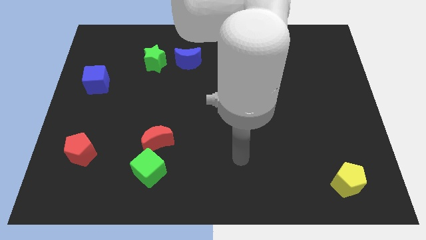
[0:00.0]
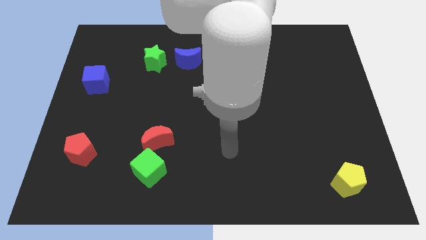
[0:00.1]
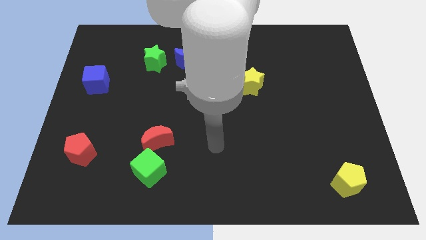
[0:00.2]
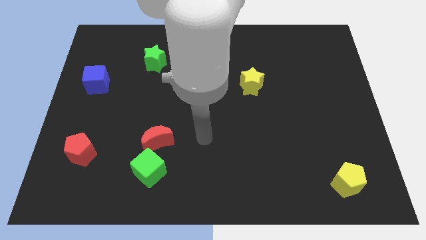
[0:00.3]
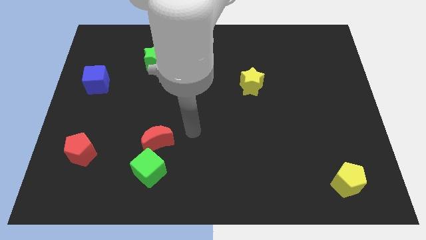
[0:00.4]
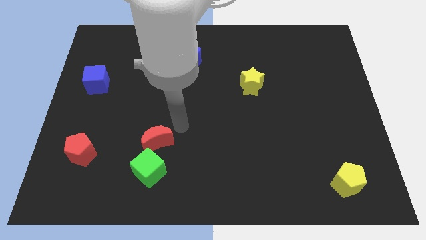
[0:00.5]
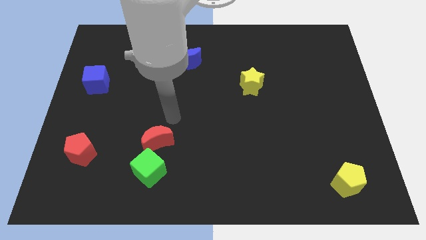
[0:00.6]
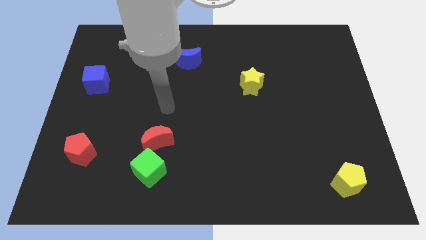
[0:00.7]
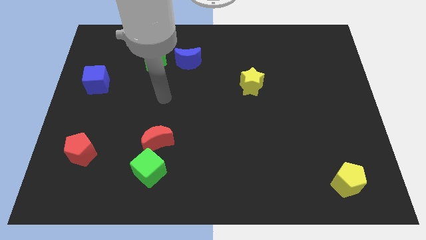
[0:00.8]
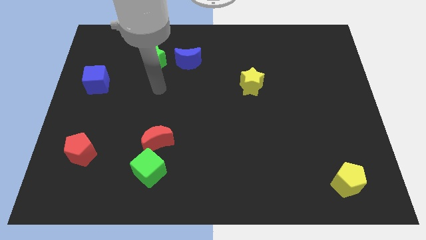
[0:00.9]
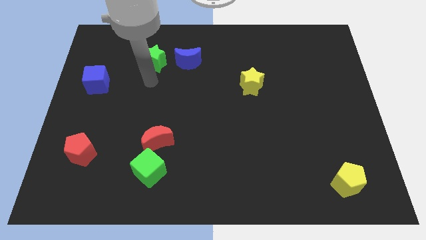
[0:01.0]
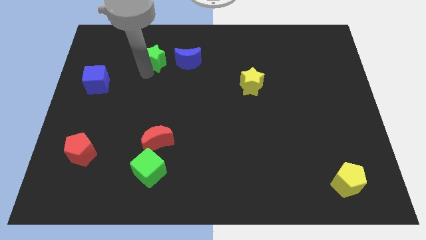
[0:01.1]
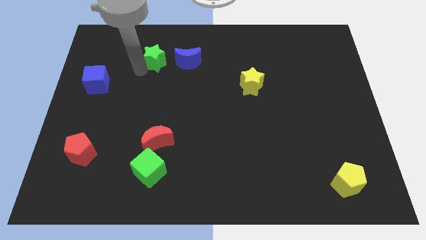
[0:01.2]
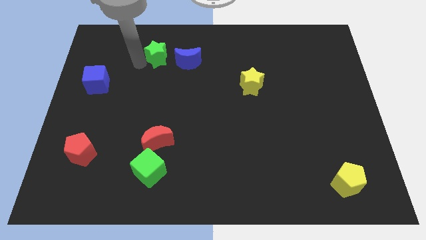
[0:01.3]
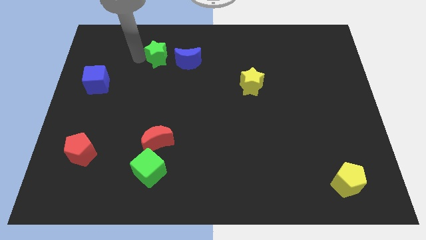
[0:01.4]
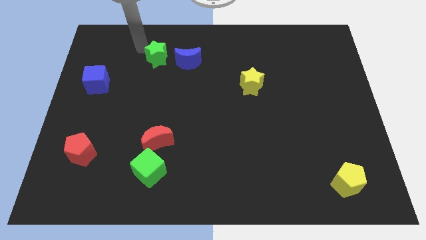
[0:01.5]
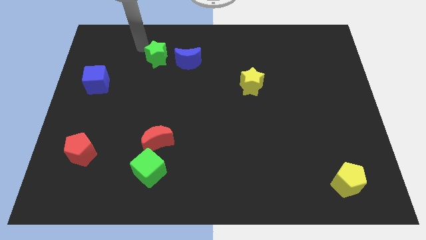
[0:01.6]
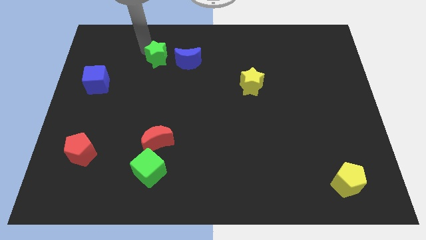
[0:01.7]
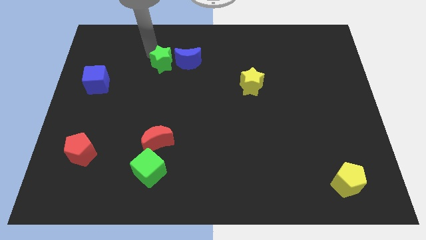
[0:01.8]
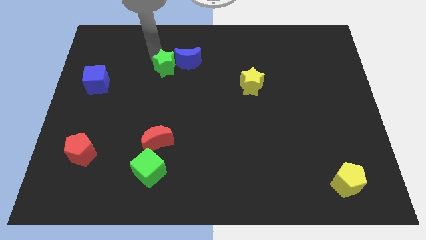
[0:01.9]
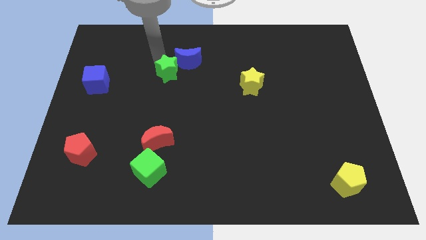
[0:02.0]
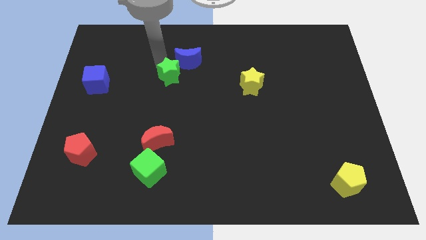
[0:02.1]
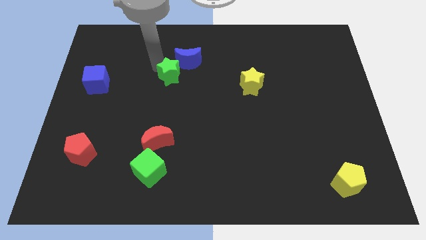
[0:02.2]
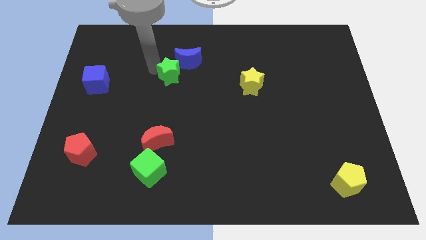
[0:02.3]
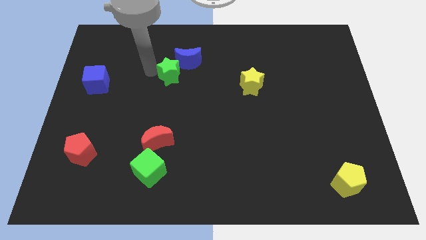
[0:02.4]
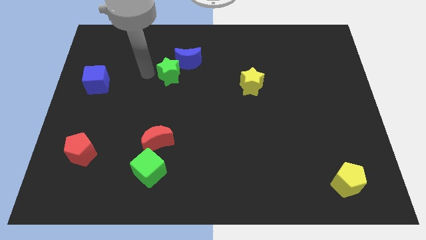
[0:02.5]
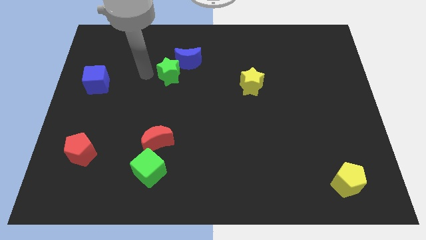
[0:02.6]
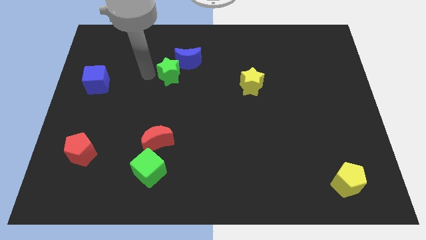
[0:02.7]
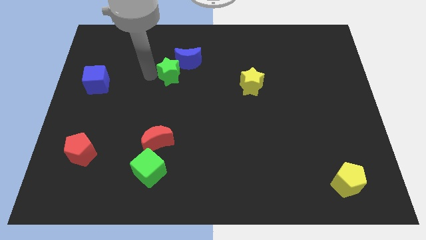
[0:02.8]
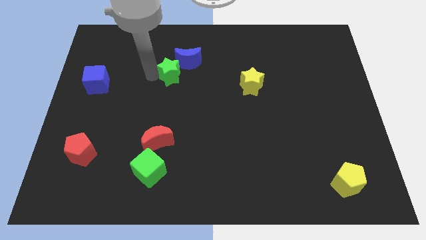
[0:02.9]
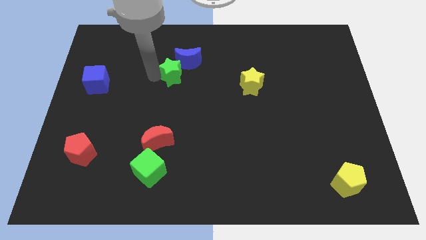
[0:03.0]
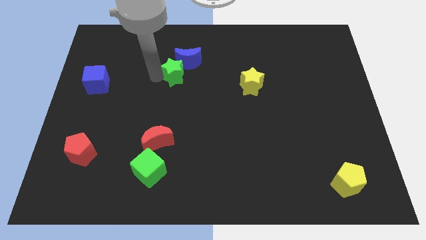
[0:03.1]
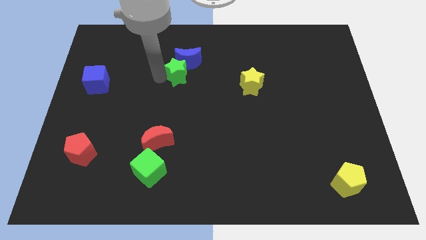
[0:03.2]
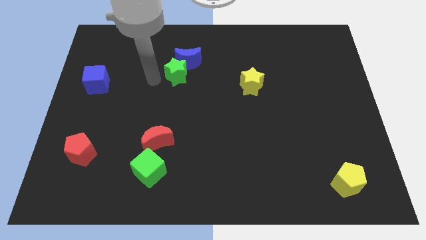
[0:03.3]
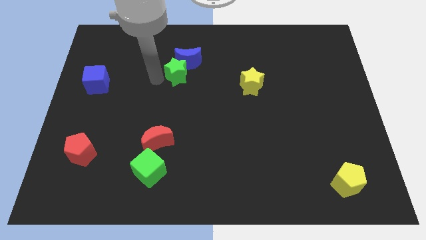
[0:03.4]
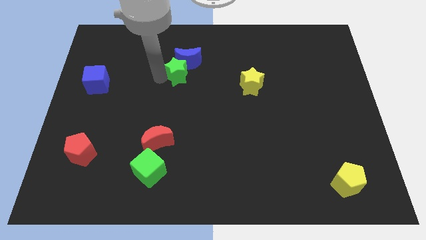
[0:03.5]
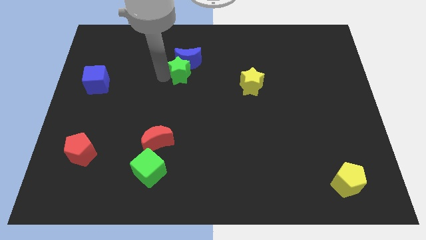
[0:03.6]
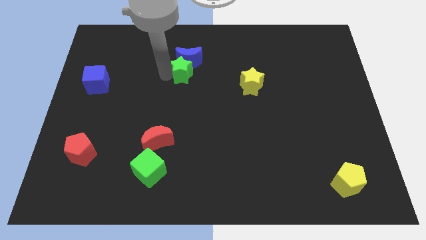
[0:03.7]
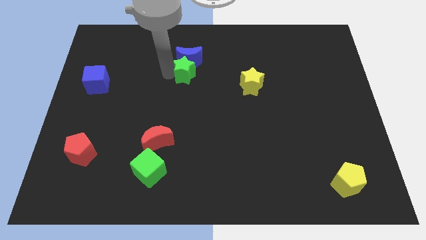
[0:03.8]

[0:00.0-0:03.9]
push the green star right a little bit

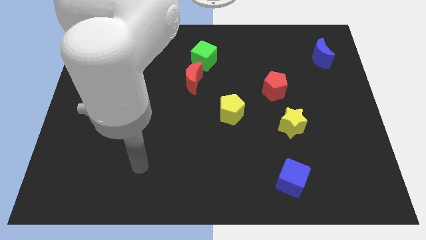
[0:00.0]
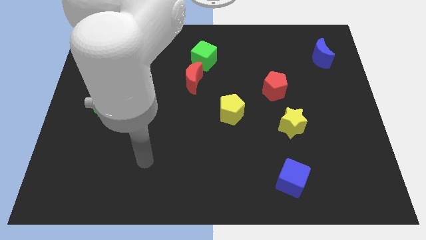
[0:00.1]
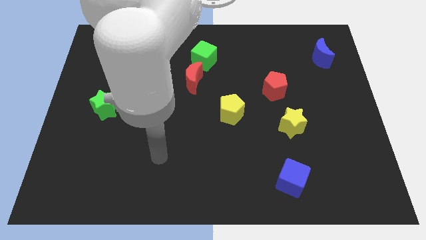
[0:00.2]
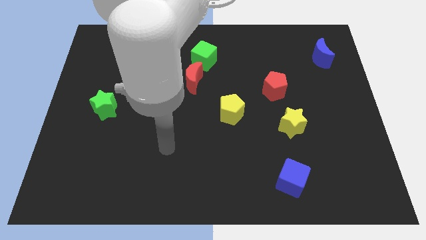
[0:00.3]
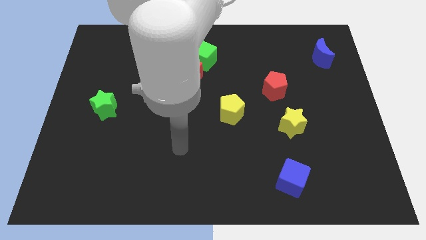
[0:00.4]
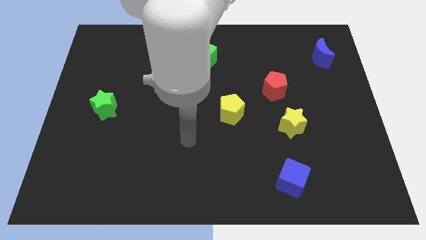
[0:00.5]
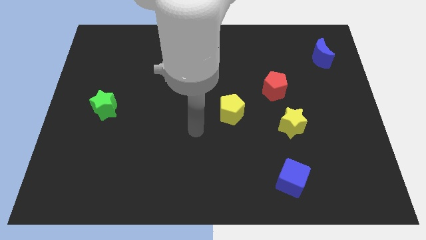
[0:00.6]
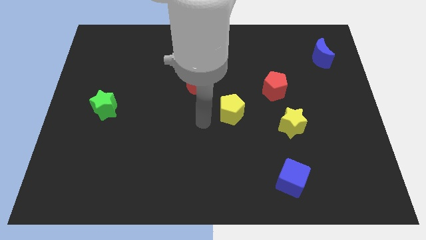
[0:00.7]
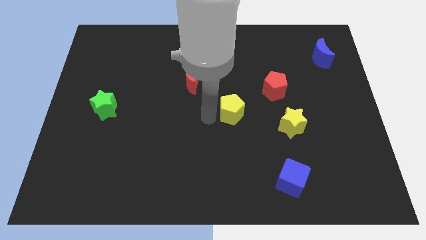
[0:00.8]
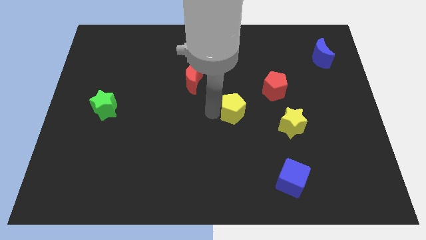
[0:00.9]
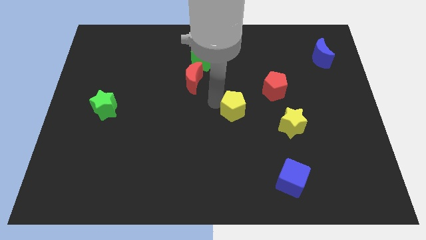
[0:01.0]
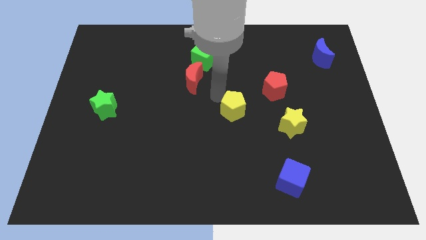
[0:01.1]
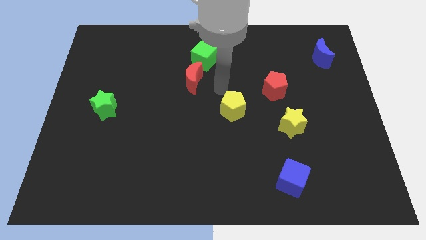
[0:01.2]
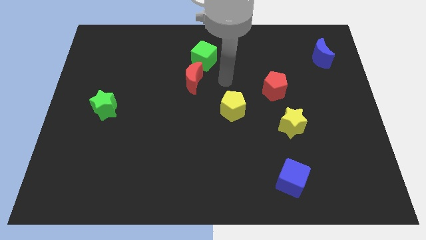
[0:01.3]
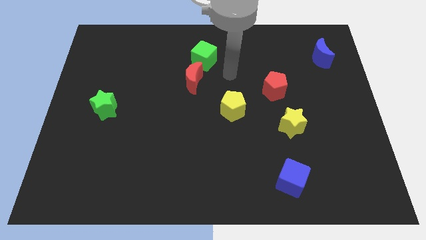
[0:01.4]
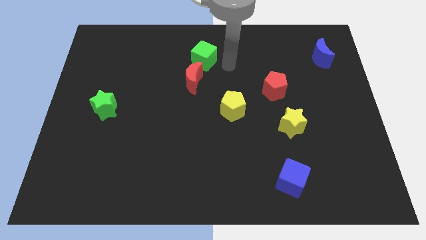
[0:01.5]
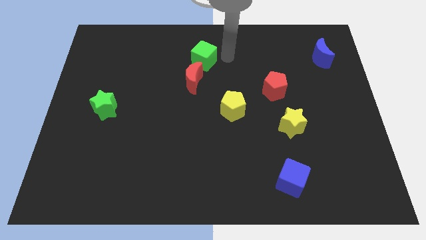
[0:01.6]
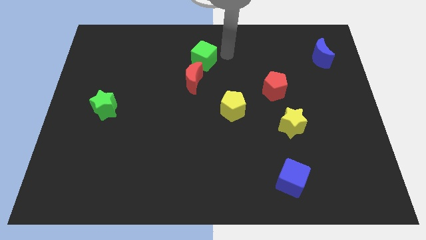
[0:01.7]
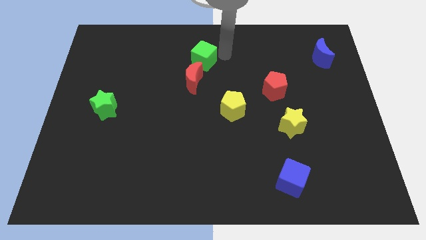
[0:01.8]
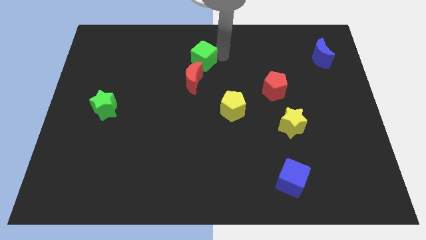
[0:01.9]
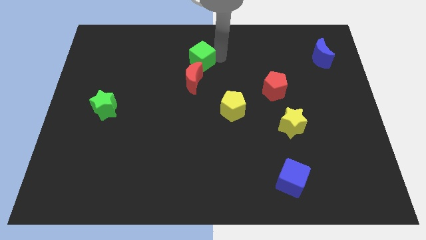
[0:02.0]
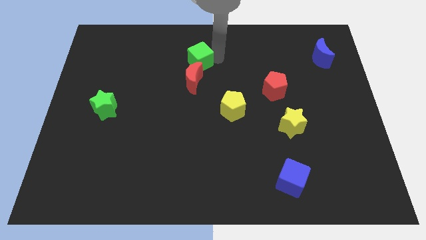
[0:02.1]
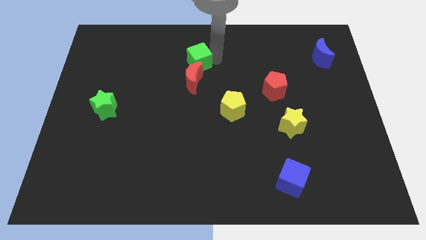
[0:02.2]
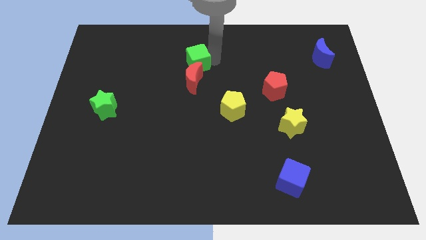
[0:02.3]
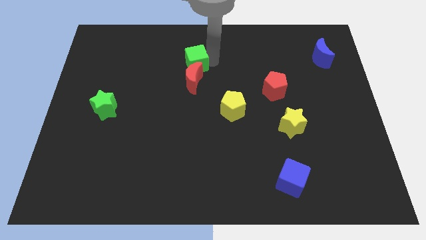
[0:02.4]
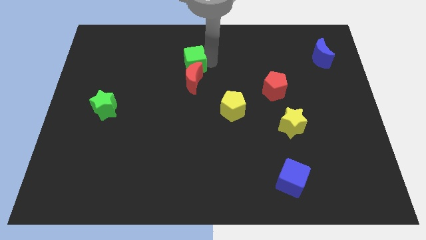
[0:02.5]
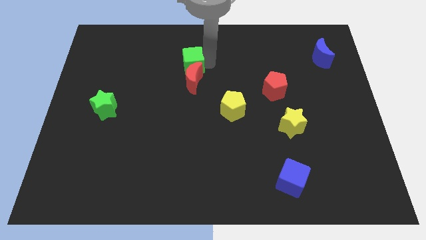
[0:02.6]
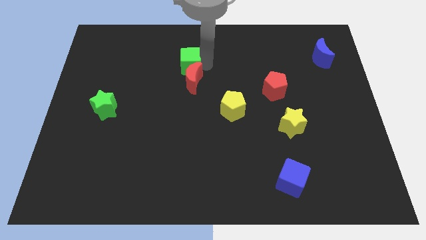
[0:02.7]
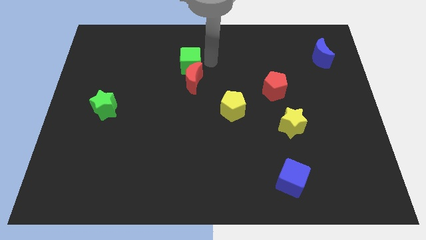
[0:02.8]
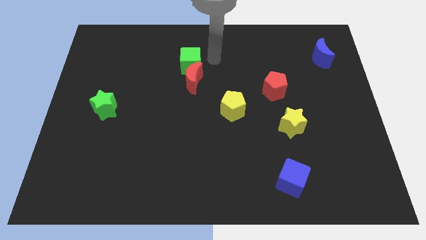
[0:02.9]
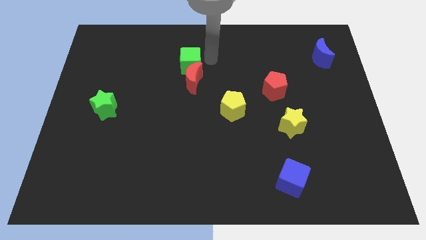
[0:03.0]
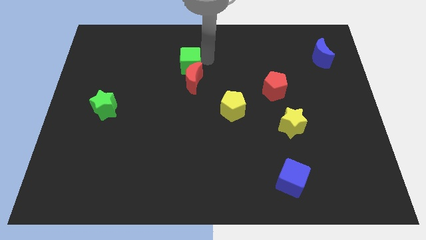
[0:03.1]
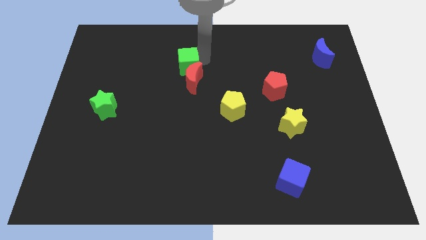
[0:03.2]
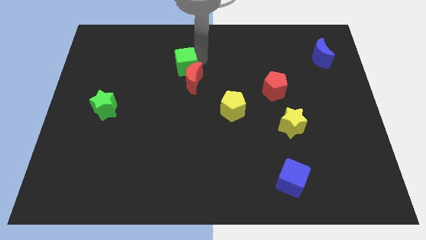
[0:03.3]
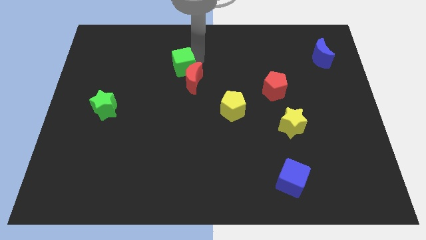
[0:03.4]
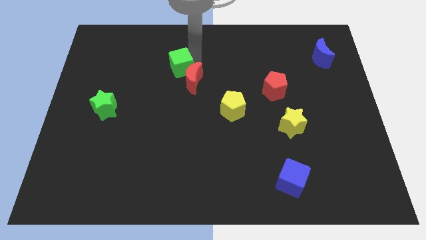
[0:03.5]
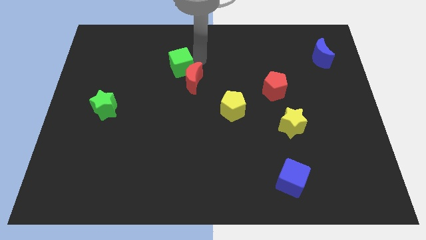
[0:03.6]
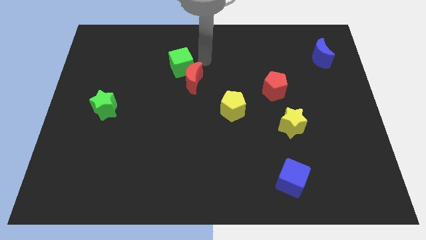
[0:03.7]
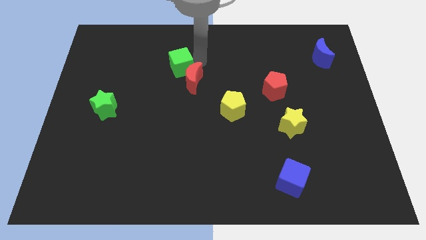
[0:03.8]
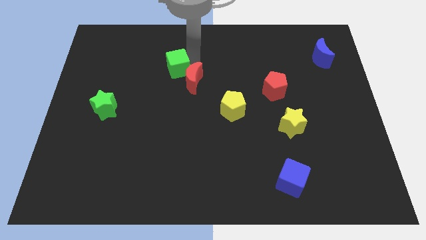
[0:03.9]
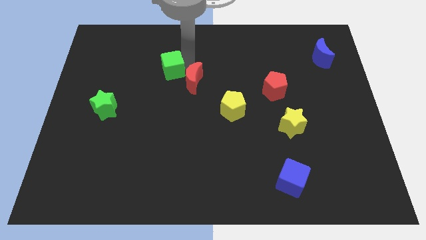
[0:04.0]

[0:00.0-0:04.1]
slightly push the green cube down and left

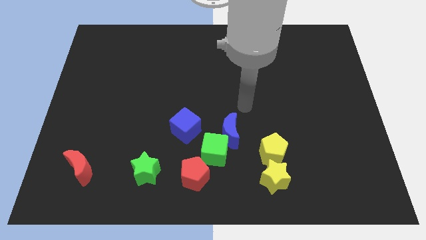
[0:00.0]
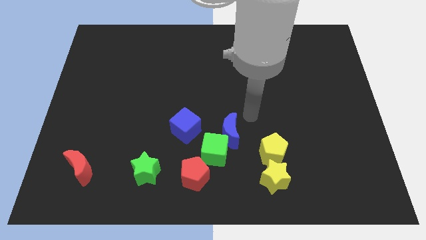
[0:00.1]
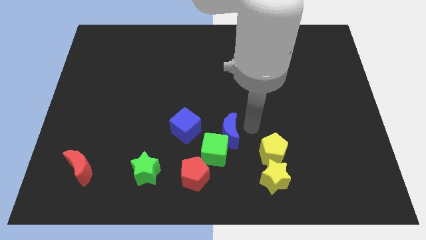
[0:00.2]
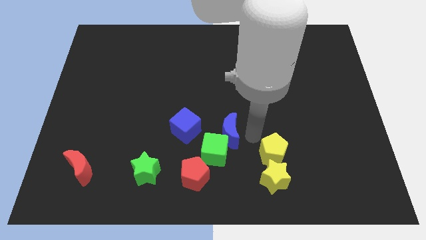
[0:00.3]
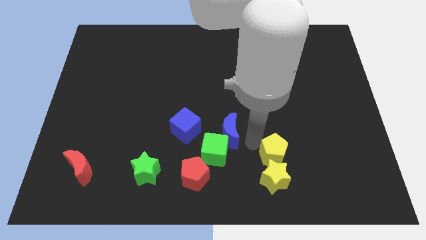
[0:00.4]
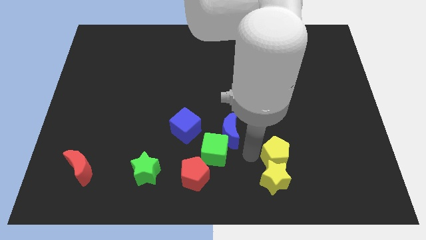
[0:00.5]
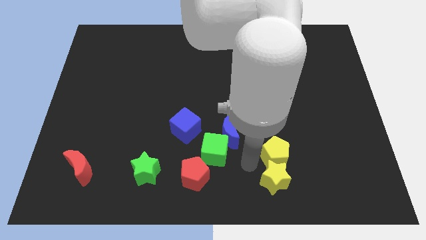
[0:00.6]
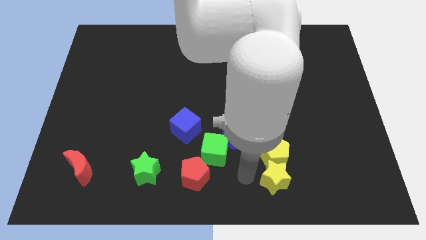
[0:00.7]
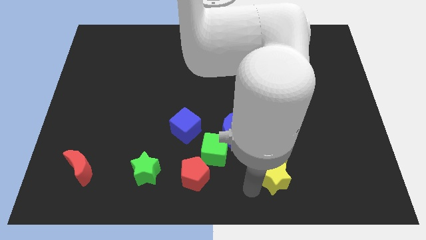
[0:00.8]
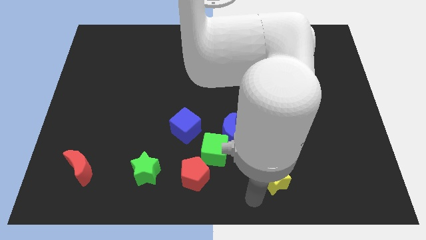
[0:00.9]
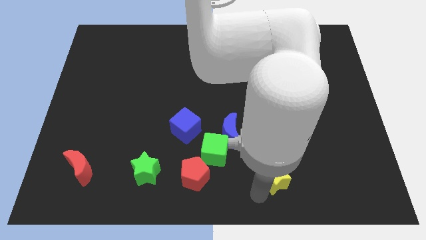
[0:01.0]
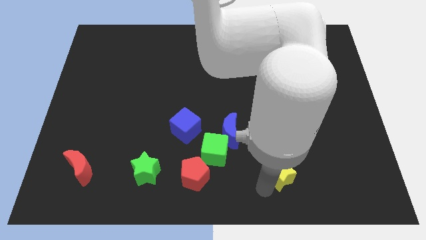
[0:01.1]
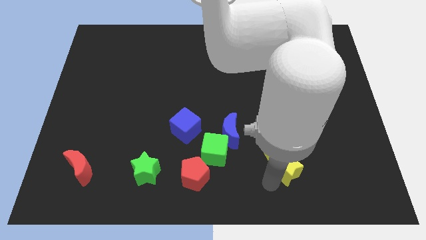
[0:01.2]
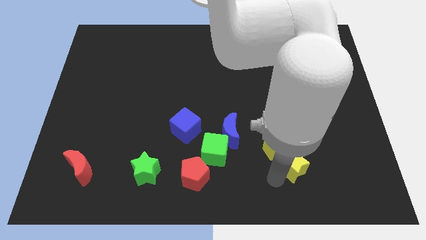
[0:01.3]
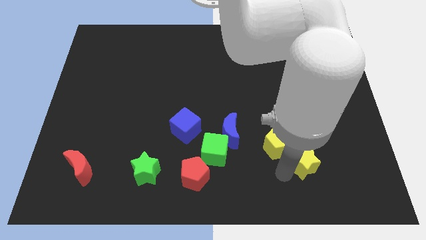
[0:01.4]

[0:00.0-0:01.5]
move the yellow star slightly up and right diagonally
